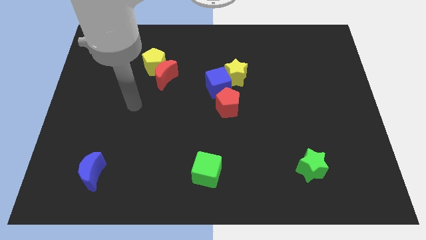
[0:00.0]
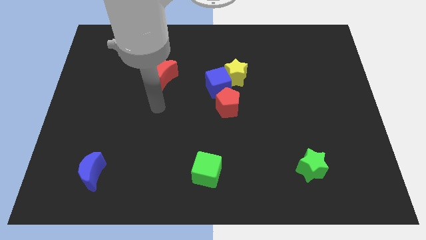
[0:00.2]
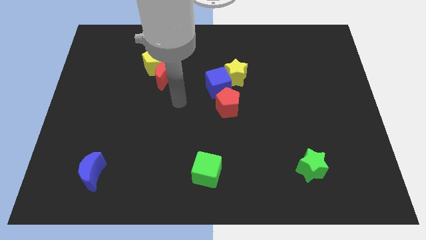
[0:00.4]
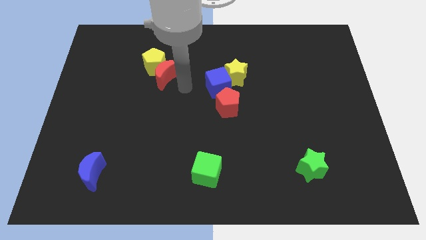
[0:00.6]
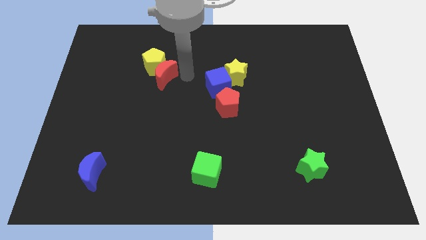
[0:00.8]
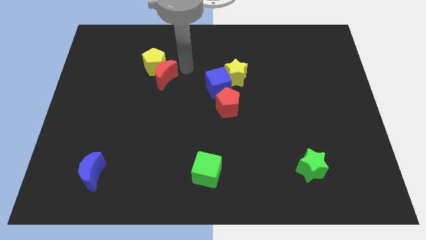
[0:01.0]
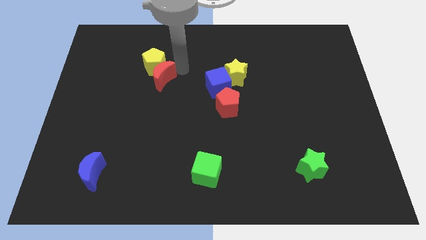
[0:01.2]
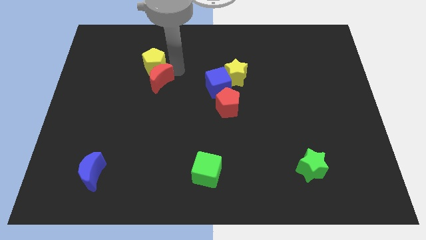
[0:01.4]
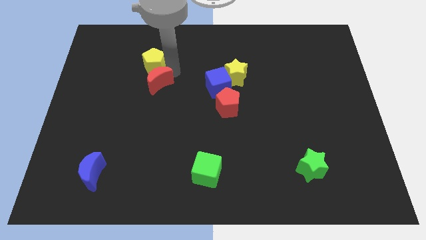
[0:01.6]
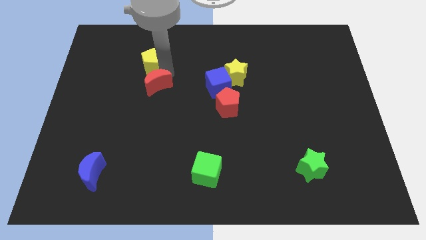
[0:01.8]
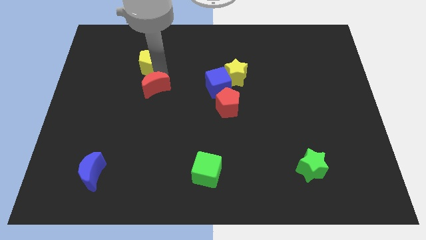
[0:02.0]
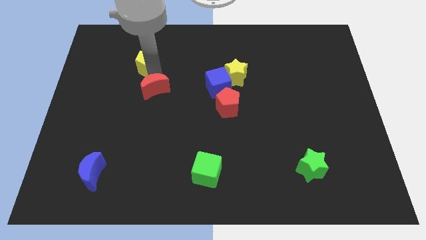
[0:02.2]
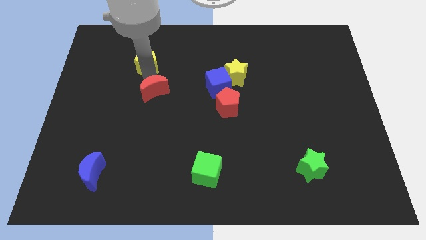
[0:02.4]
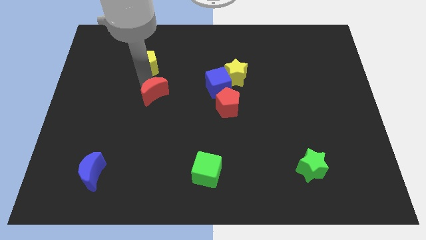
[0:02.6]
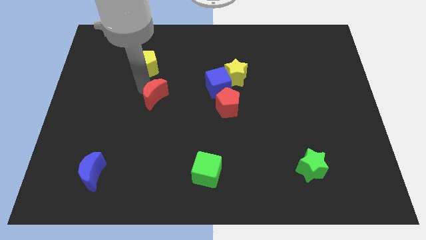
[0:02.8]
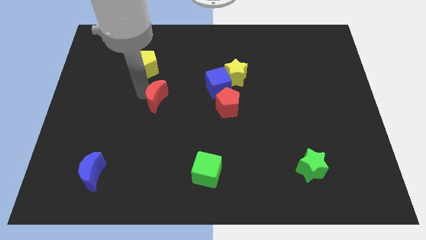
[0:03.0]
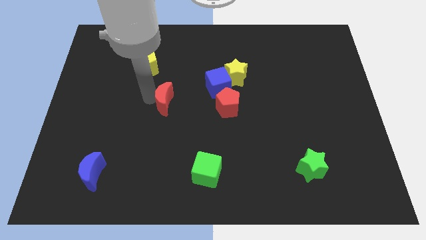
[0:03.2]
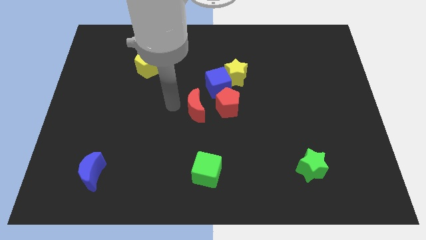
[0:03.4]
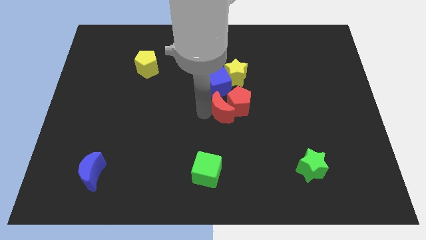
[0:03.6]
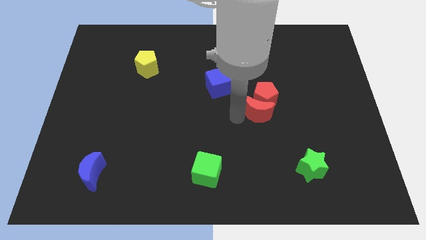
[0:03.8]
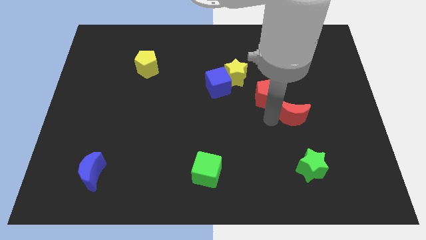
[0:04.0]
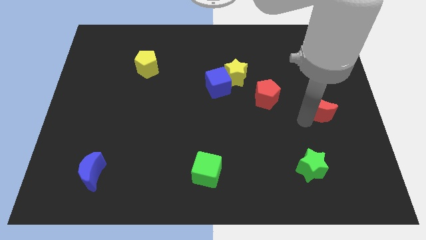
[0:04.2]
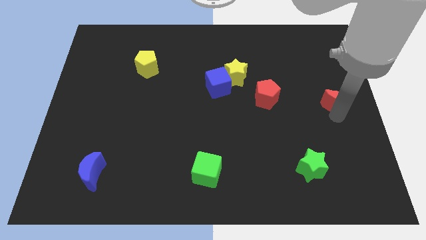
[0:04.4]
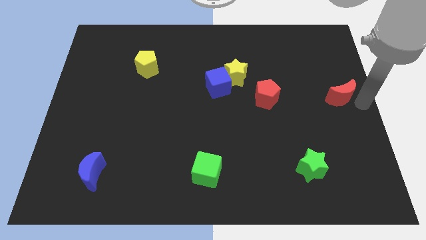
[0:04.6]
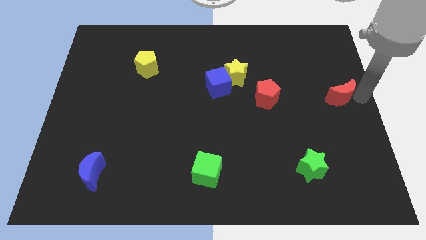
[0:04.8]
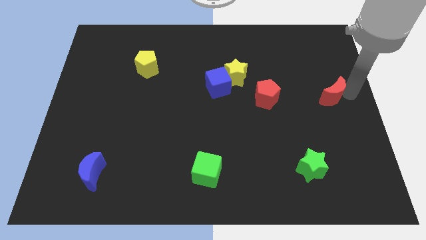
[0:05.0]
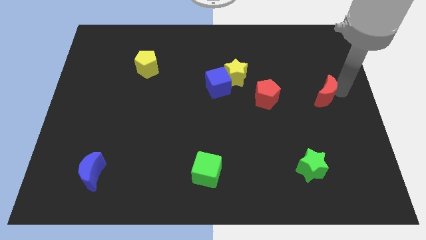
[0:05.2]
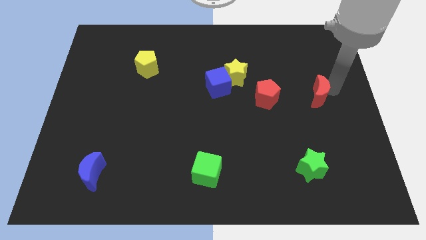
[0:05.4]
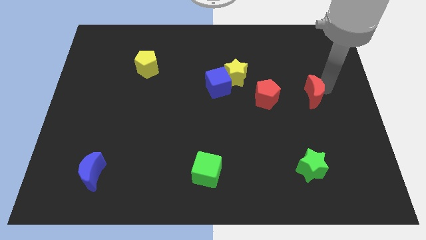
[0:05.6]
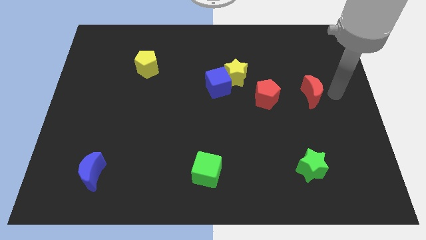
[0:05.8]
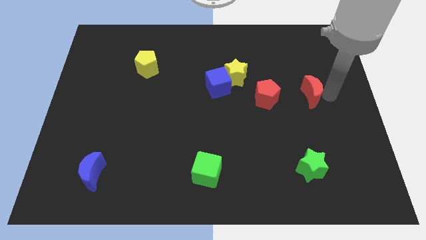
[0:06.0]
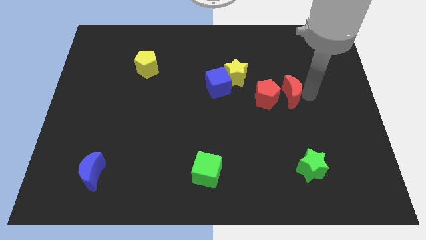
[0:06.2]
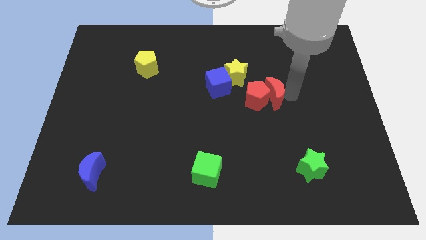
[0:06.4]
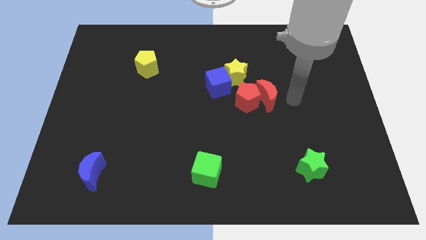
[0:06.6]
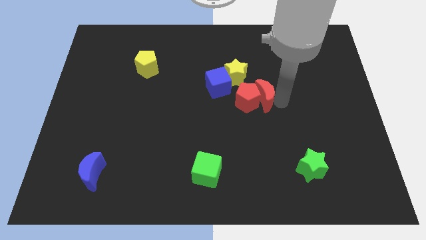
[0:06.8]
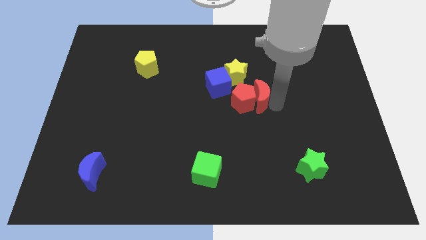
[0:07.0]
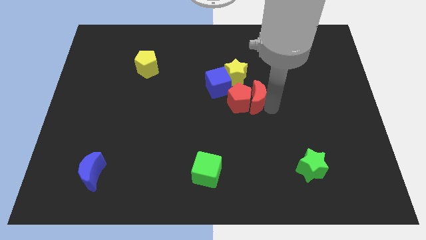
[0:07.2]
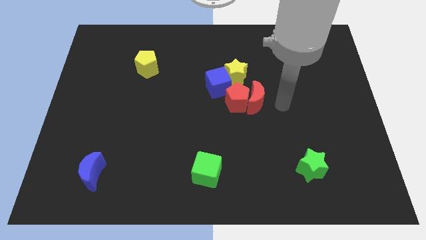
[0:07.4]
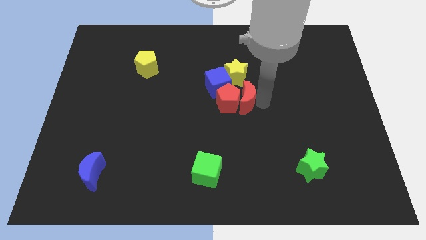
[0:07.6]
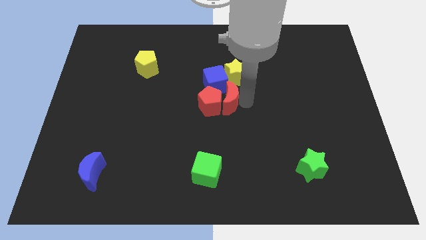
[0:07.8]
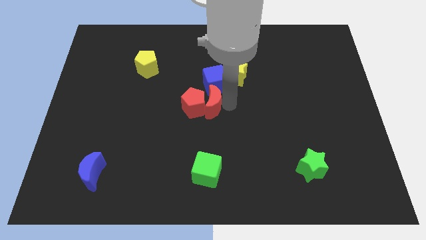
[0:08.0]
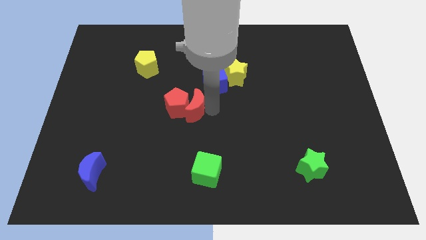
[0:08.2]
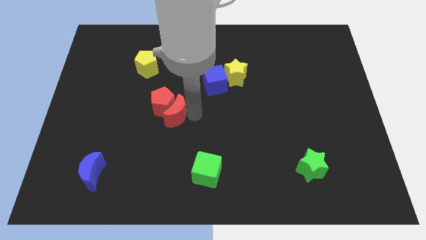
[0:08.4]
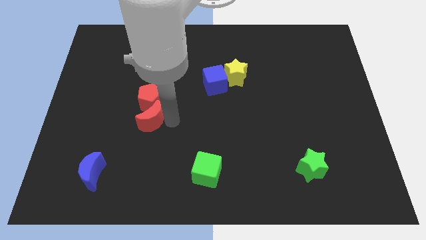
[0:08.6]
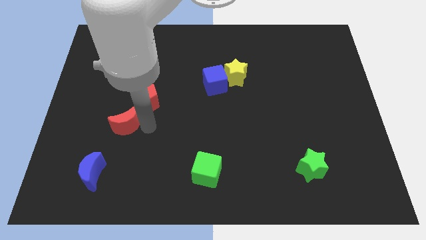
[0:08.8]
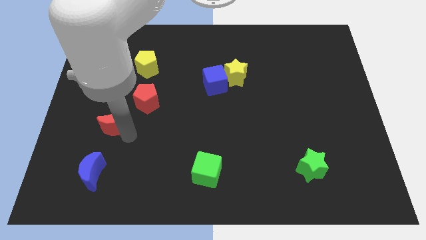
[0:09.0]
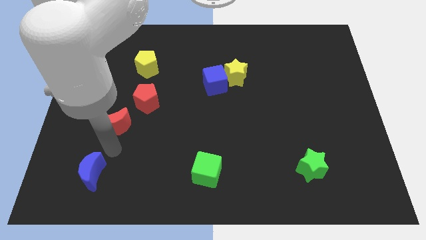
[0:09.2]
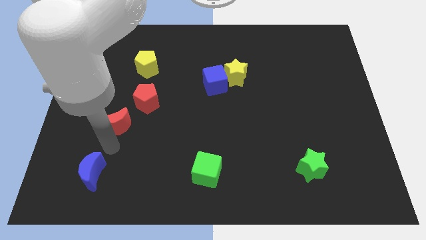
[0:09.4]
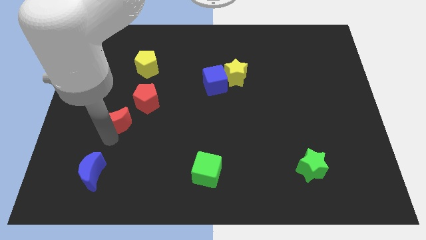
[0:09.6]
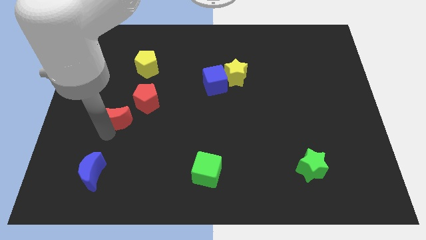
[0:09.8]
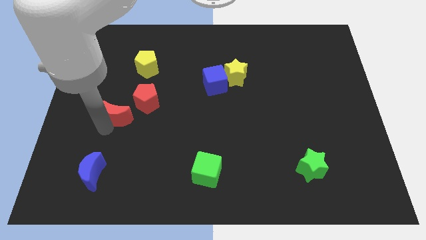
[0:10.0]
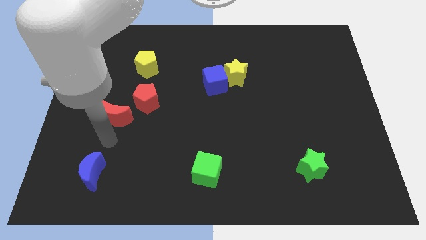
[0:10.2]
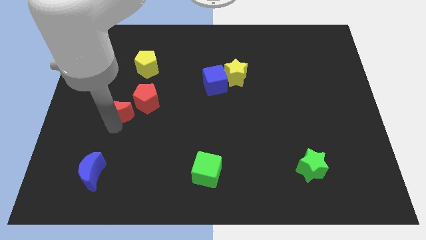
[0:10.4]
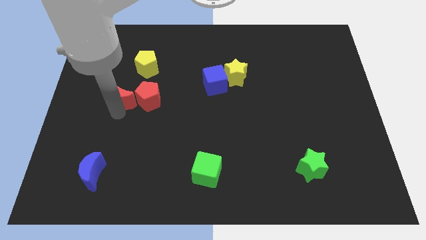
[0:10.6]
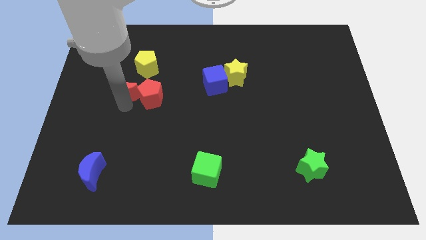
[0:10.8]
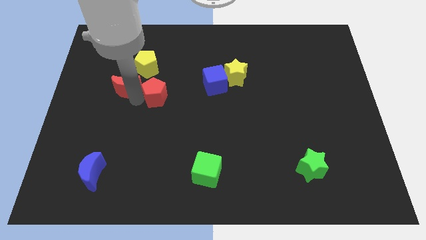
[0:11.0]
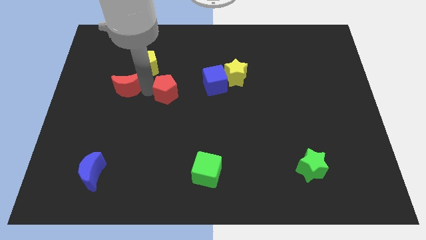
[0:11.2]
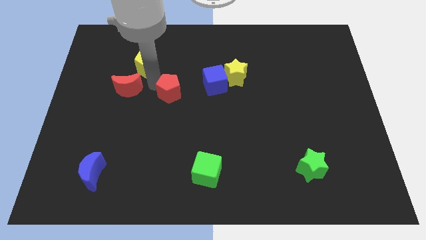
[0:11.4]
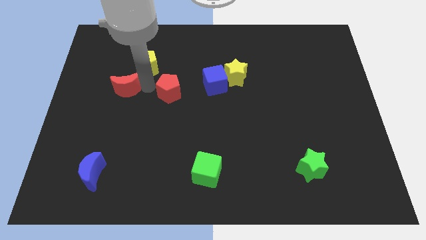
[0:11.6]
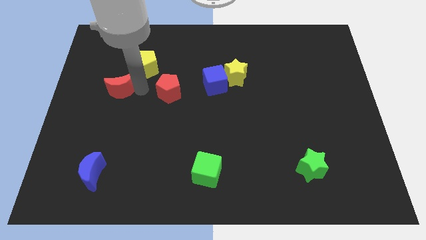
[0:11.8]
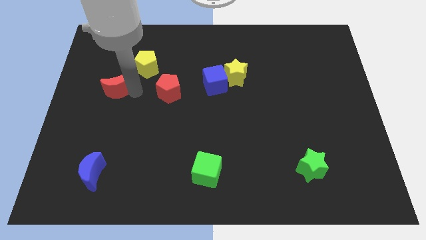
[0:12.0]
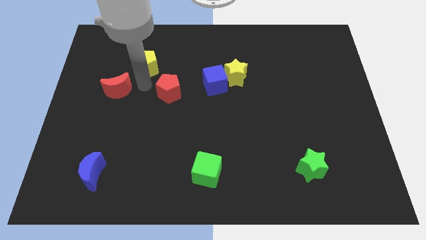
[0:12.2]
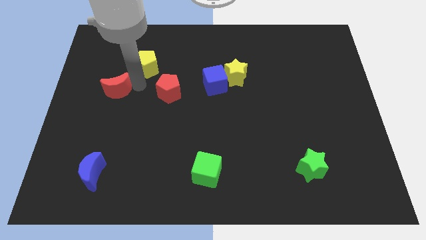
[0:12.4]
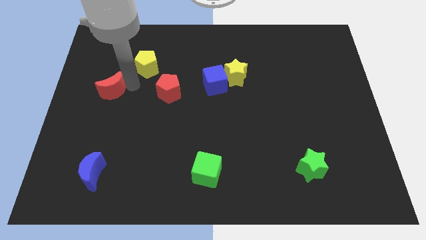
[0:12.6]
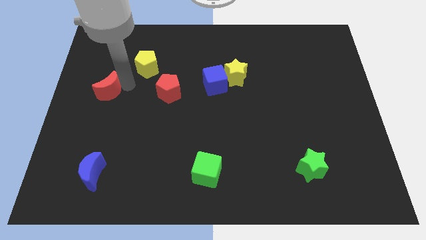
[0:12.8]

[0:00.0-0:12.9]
push the red moon to the left side
